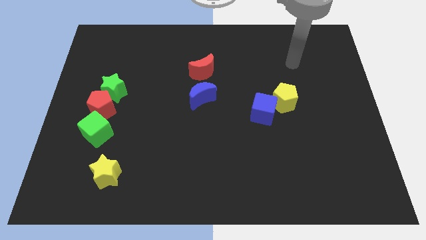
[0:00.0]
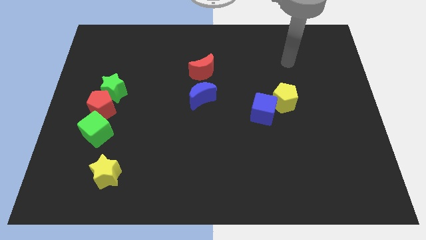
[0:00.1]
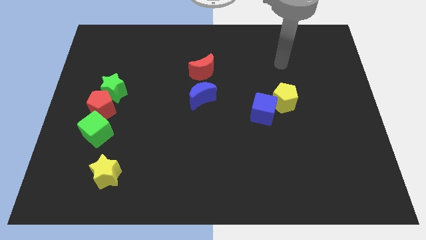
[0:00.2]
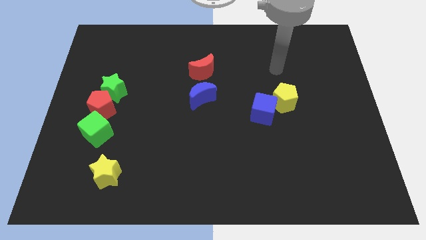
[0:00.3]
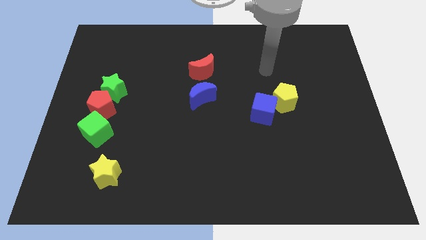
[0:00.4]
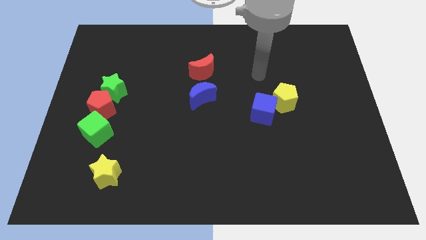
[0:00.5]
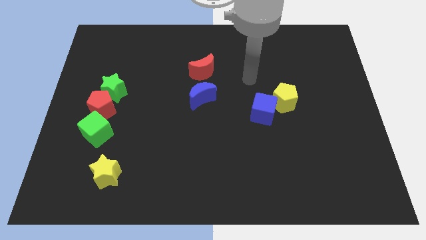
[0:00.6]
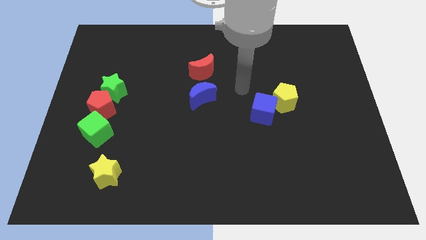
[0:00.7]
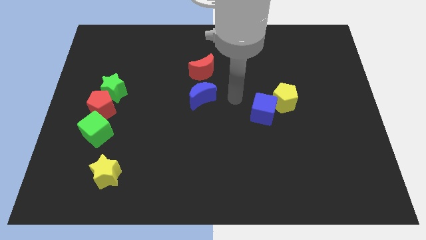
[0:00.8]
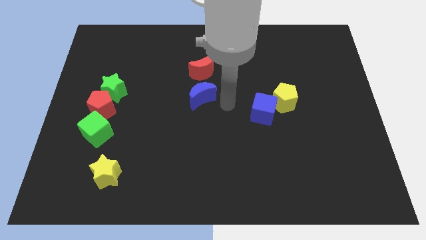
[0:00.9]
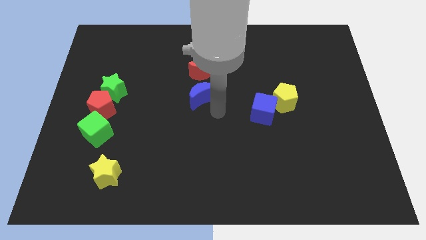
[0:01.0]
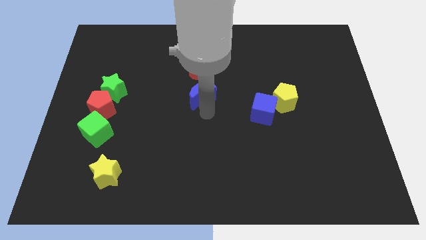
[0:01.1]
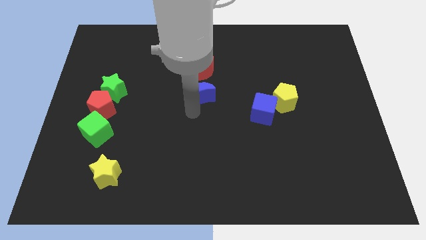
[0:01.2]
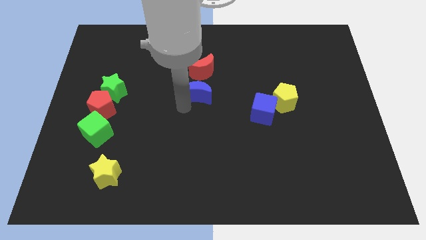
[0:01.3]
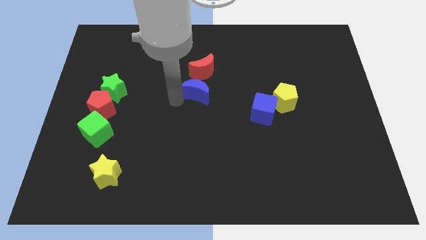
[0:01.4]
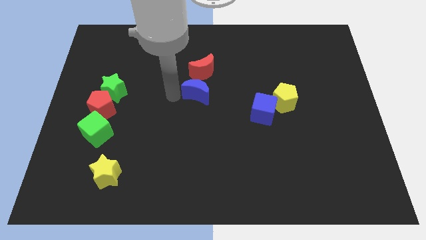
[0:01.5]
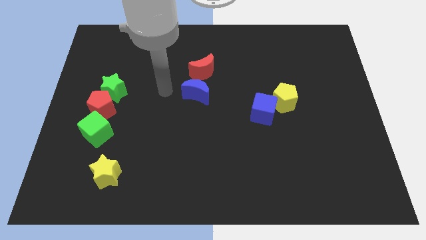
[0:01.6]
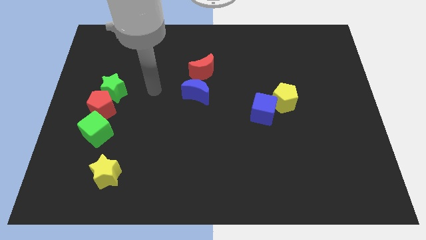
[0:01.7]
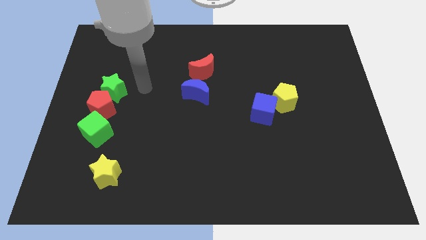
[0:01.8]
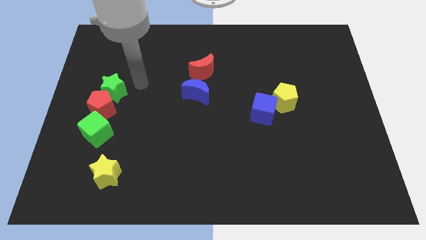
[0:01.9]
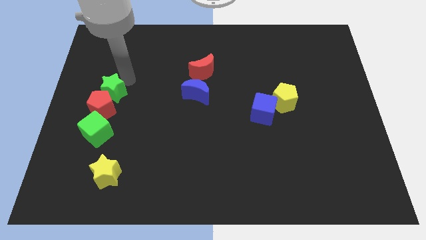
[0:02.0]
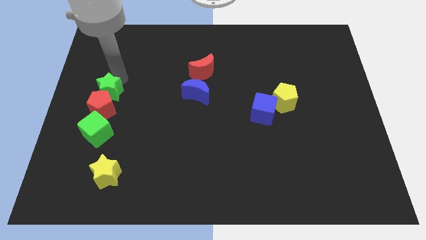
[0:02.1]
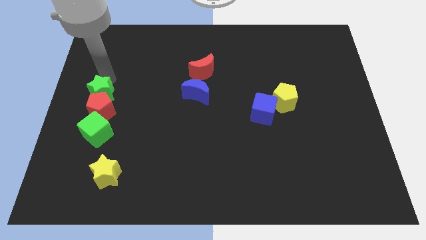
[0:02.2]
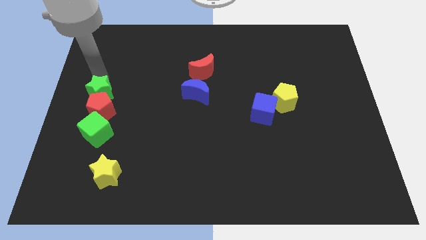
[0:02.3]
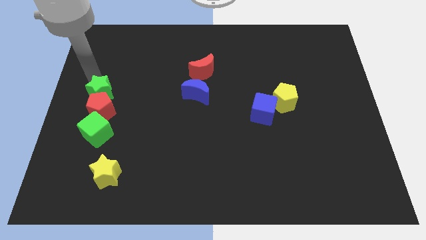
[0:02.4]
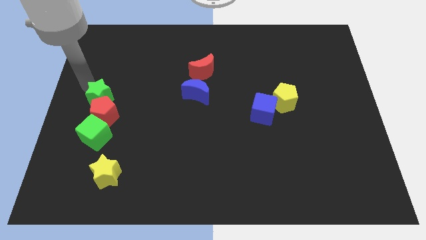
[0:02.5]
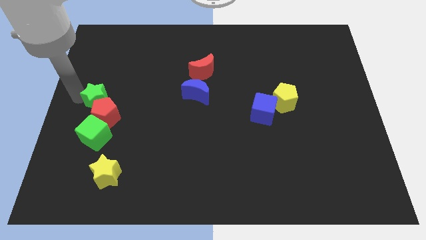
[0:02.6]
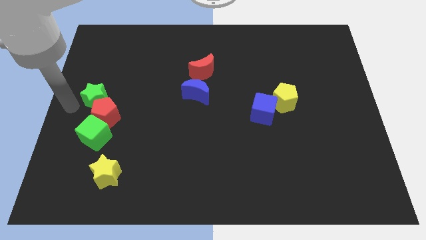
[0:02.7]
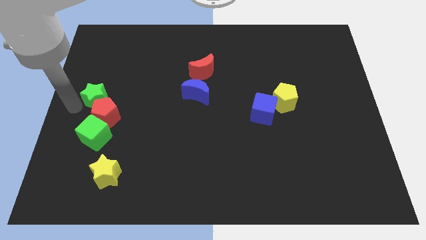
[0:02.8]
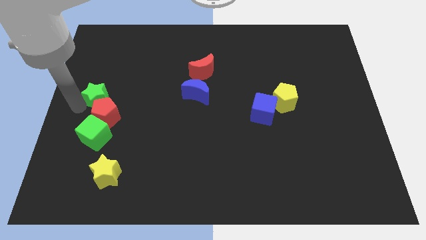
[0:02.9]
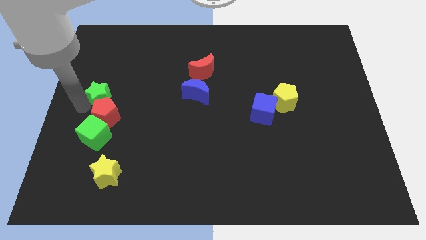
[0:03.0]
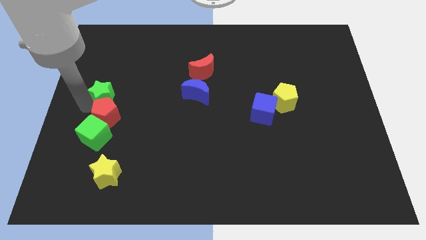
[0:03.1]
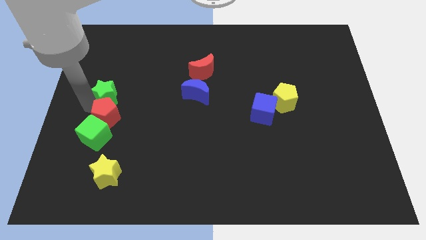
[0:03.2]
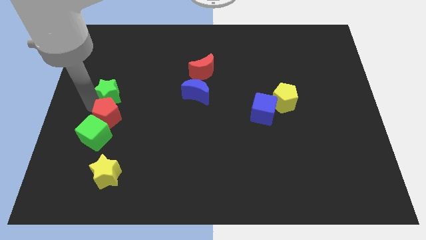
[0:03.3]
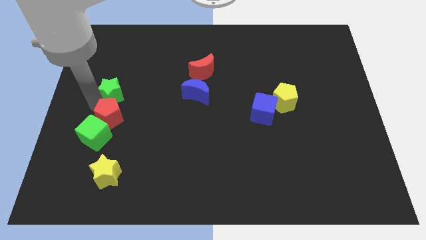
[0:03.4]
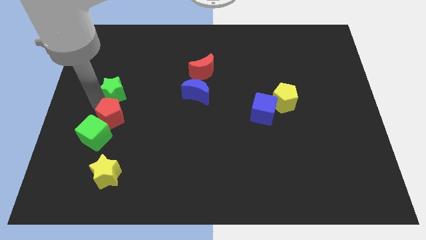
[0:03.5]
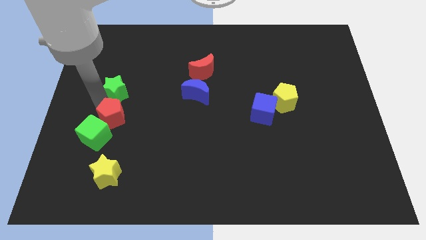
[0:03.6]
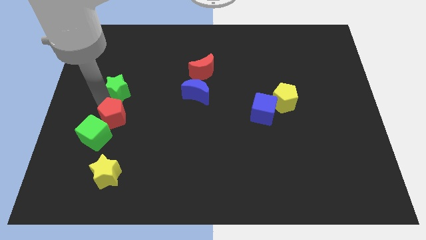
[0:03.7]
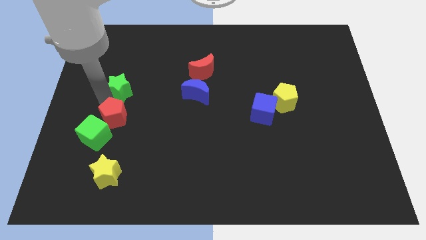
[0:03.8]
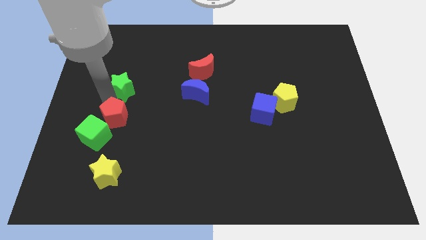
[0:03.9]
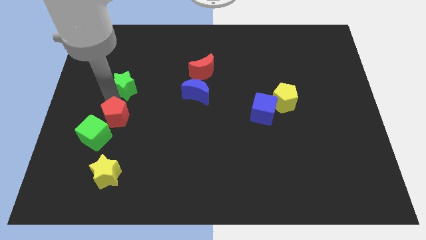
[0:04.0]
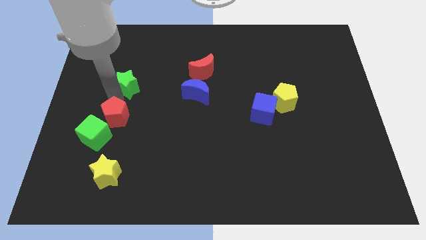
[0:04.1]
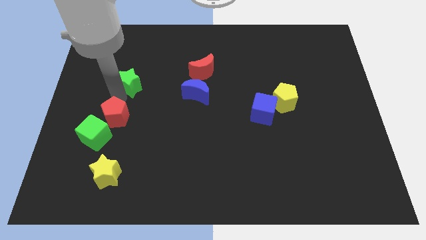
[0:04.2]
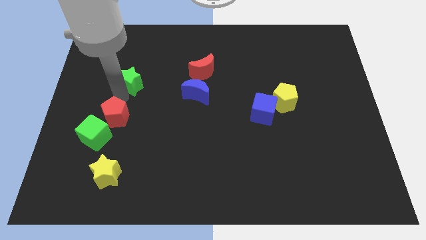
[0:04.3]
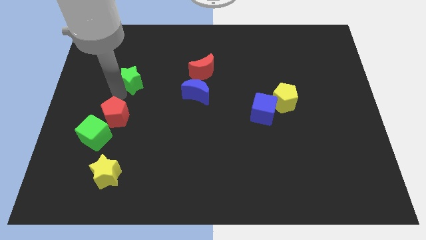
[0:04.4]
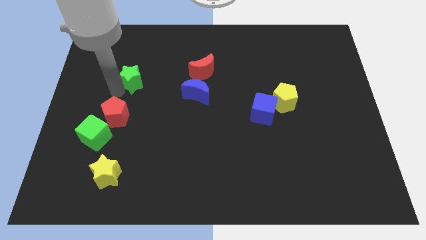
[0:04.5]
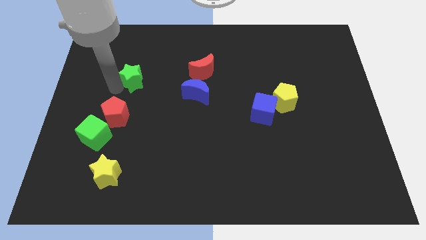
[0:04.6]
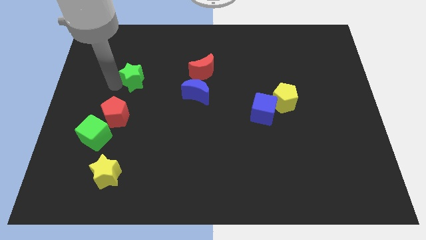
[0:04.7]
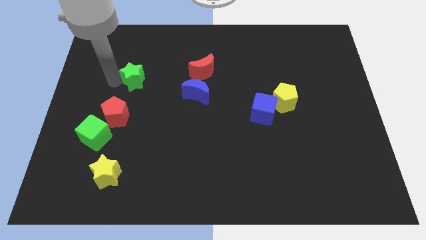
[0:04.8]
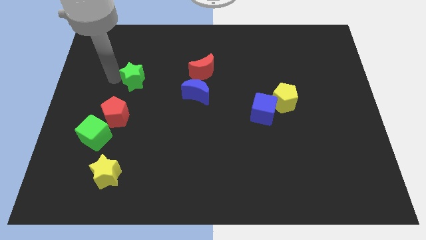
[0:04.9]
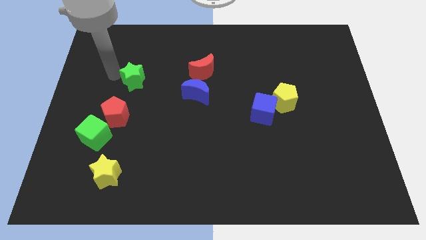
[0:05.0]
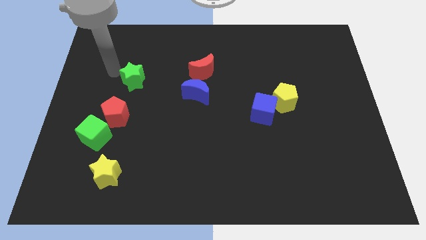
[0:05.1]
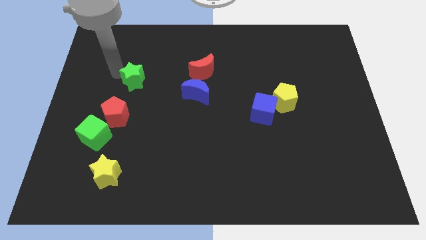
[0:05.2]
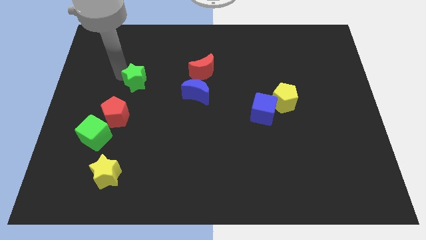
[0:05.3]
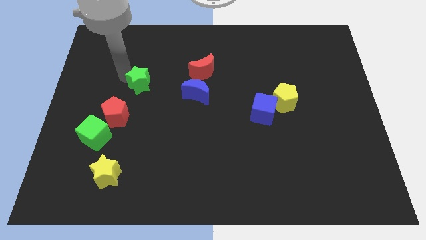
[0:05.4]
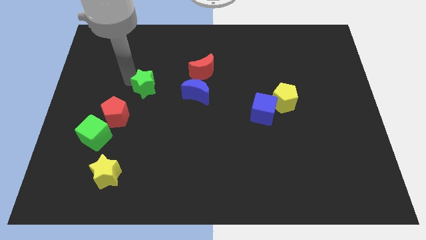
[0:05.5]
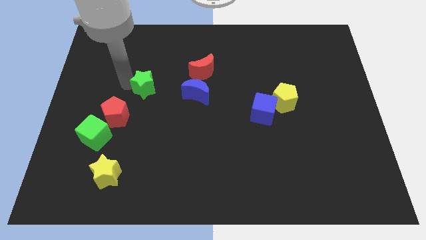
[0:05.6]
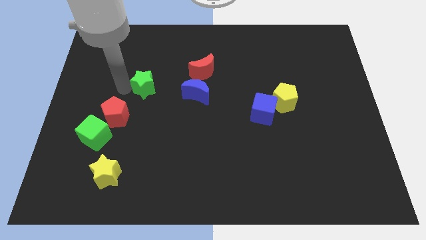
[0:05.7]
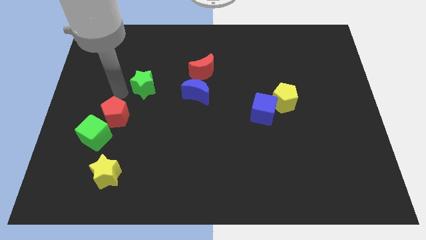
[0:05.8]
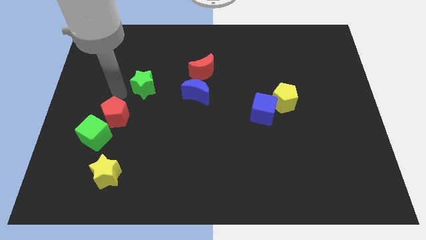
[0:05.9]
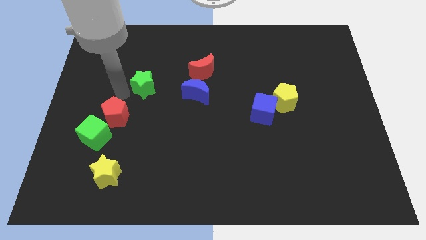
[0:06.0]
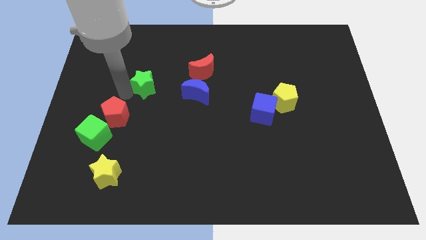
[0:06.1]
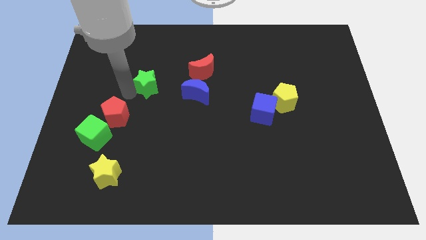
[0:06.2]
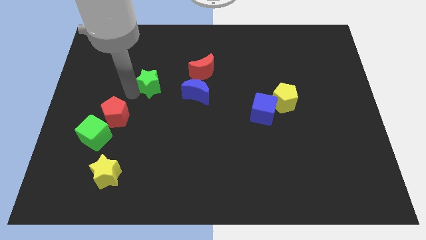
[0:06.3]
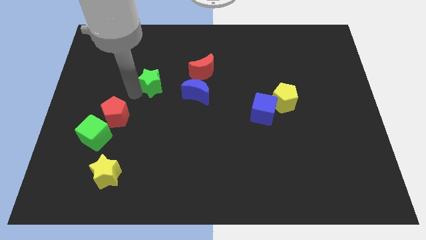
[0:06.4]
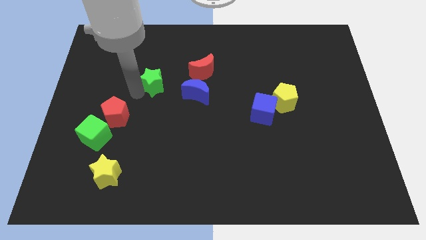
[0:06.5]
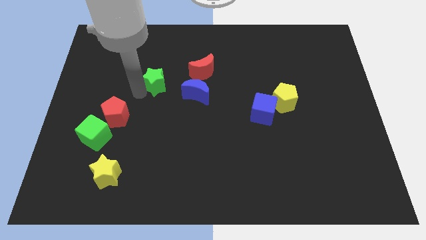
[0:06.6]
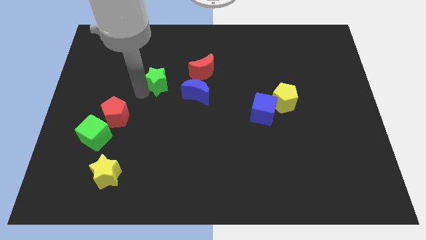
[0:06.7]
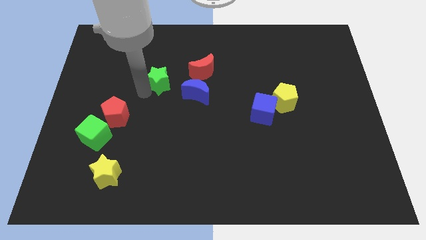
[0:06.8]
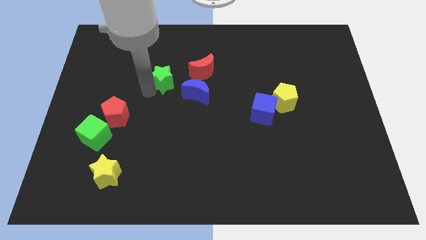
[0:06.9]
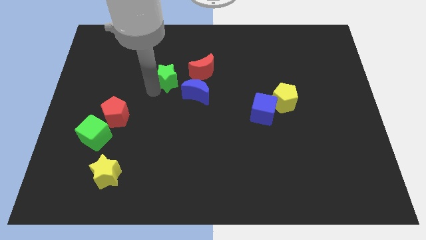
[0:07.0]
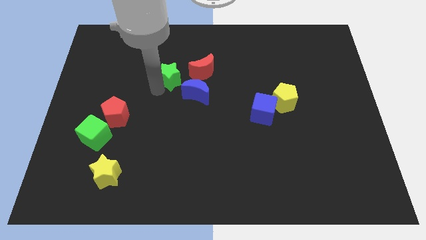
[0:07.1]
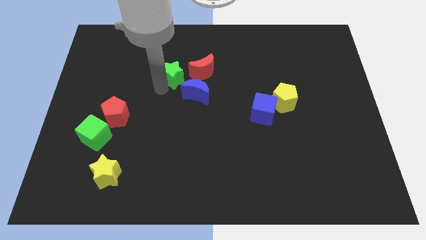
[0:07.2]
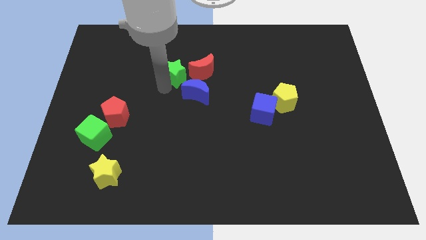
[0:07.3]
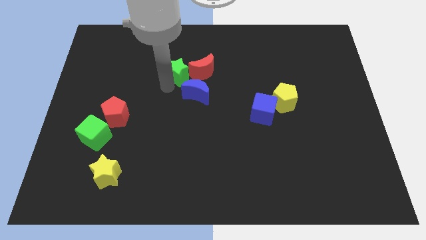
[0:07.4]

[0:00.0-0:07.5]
push the green star next to the red moon
